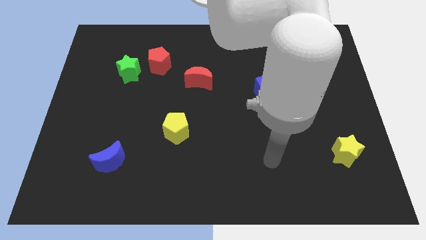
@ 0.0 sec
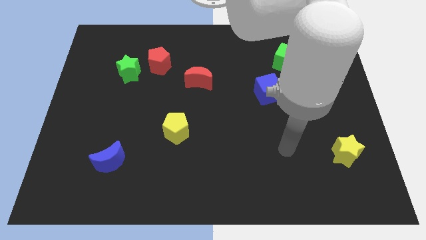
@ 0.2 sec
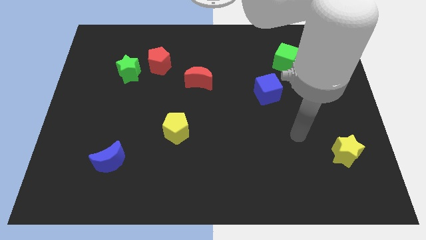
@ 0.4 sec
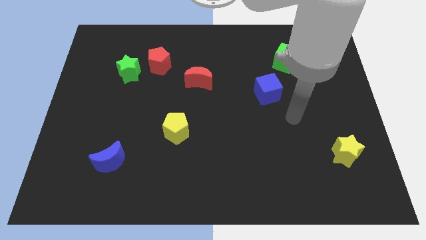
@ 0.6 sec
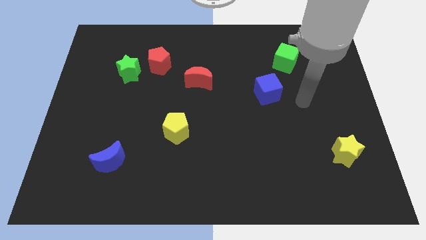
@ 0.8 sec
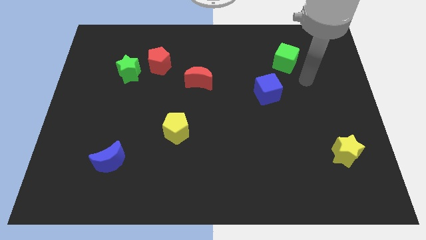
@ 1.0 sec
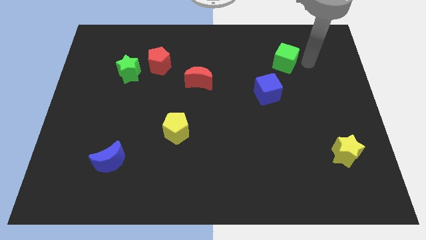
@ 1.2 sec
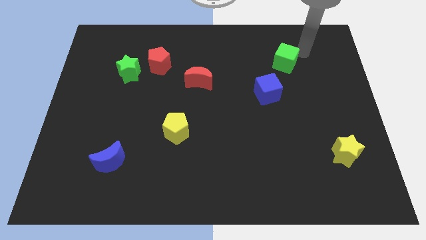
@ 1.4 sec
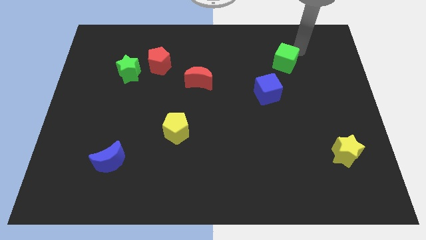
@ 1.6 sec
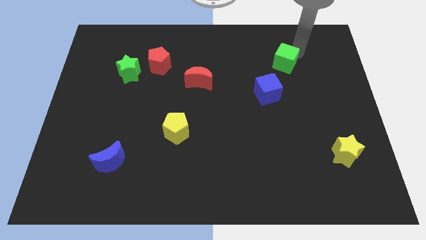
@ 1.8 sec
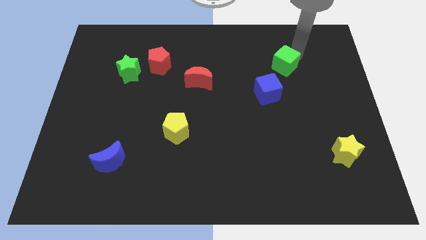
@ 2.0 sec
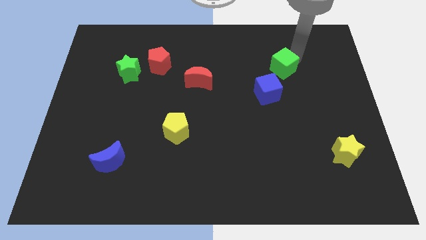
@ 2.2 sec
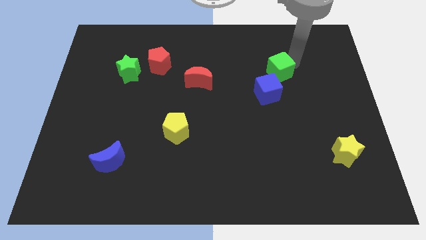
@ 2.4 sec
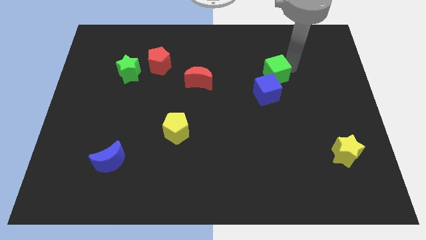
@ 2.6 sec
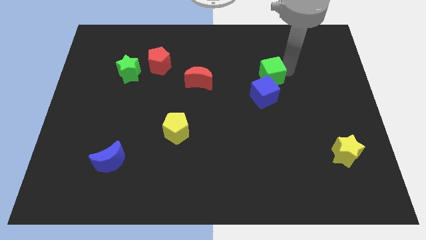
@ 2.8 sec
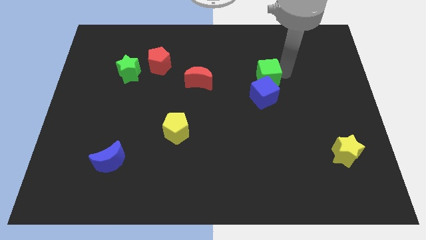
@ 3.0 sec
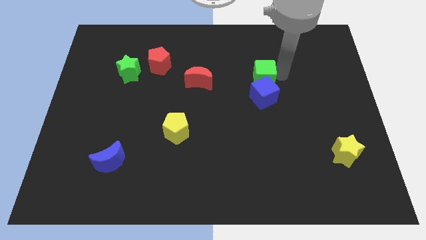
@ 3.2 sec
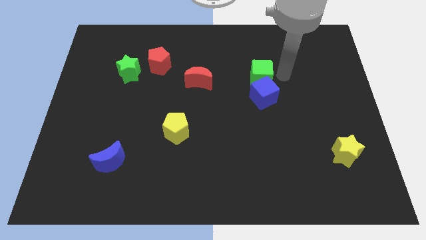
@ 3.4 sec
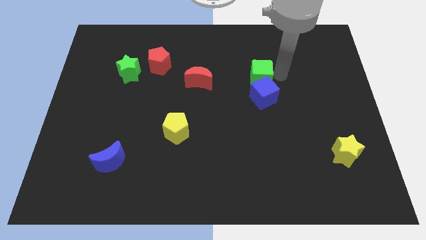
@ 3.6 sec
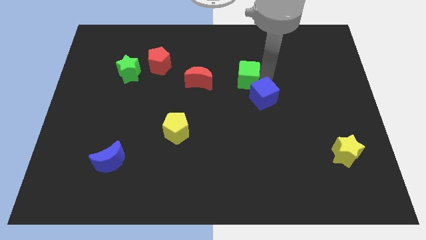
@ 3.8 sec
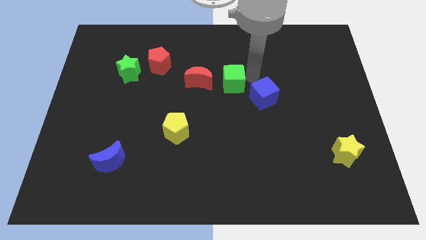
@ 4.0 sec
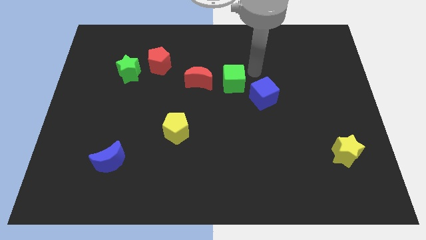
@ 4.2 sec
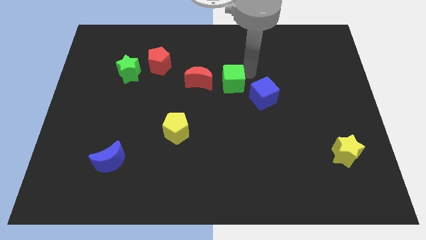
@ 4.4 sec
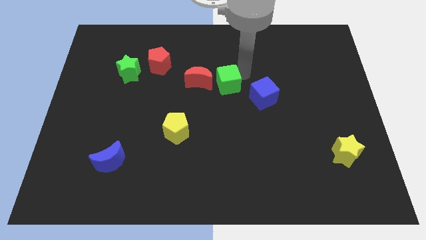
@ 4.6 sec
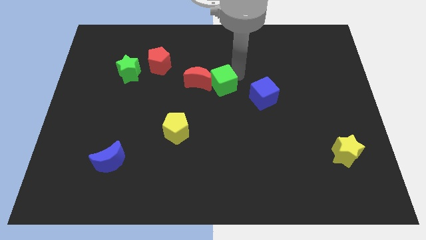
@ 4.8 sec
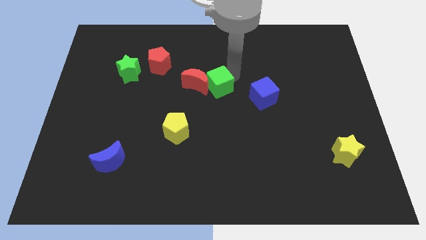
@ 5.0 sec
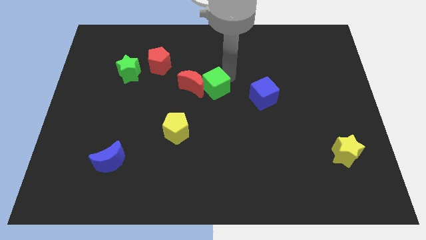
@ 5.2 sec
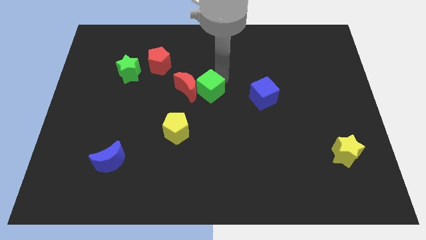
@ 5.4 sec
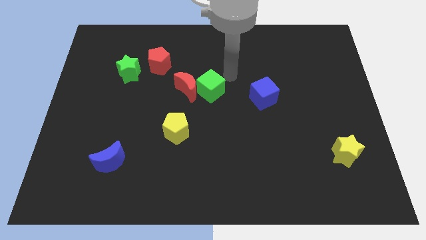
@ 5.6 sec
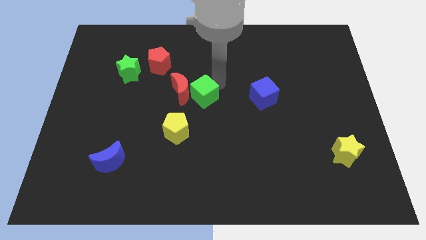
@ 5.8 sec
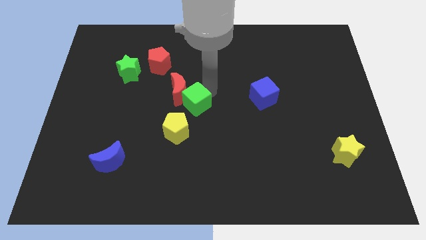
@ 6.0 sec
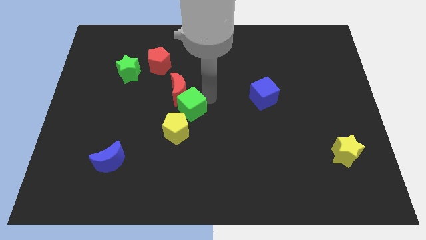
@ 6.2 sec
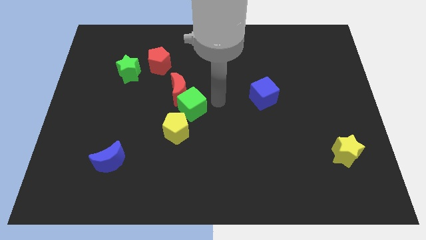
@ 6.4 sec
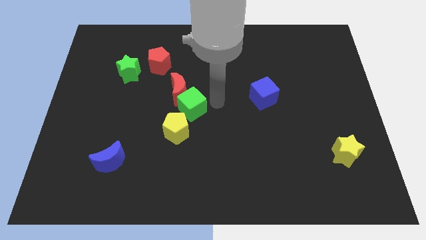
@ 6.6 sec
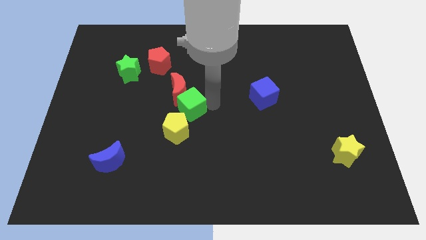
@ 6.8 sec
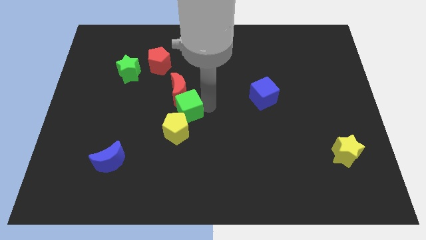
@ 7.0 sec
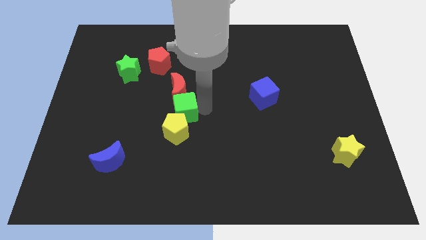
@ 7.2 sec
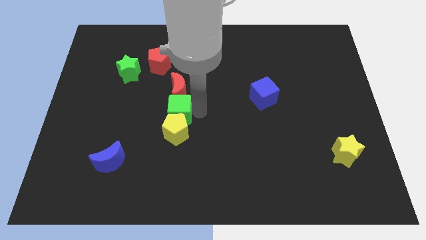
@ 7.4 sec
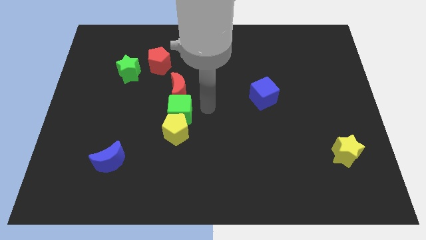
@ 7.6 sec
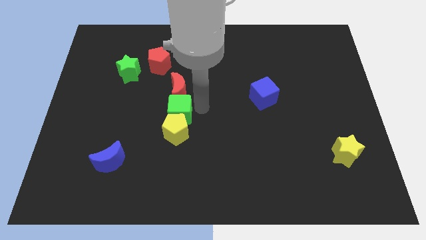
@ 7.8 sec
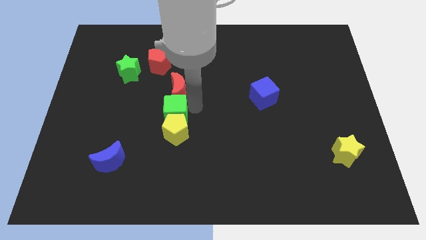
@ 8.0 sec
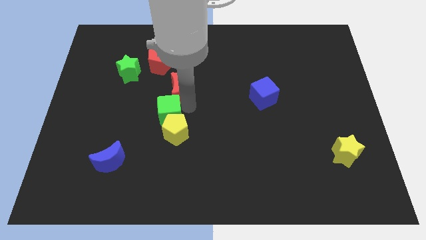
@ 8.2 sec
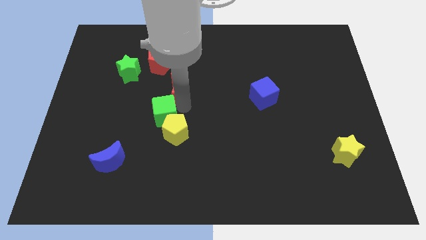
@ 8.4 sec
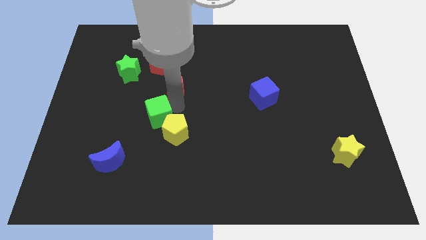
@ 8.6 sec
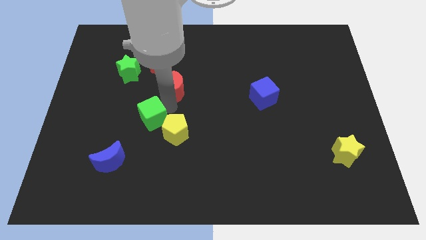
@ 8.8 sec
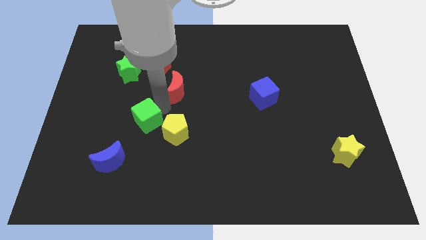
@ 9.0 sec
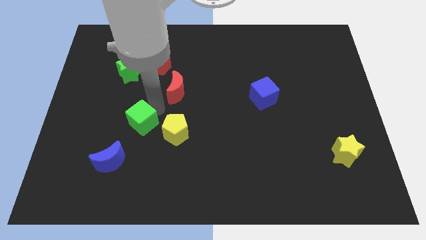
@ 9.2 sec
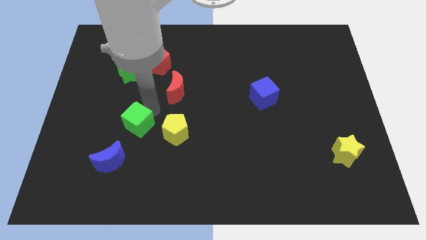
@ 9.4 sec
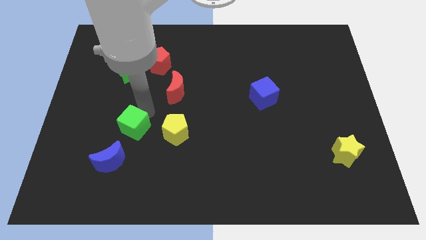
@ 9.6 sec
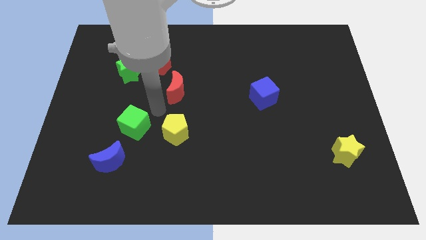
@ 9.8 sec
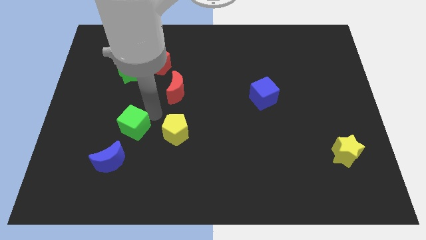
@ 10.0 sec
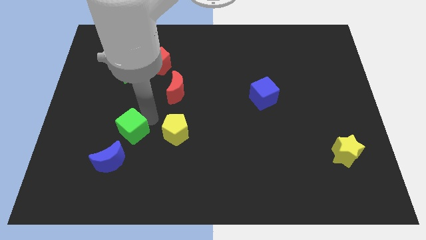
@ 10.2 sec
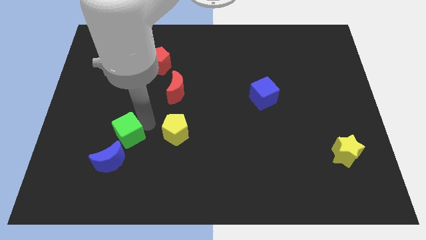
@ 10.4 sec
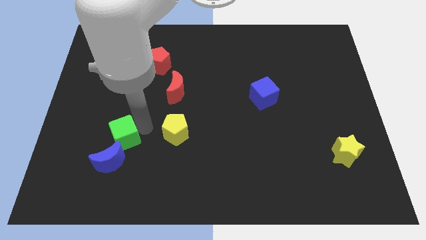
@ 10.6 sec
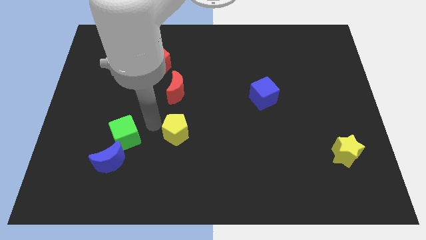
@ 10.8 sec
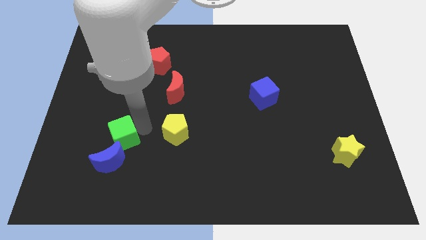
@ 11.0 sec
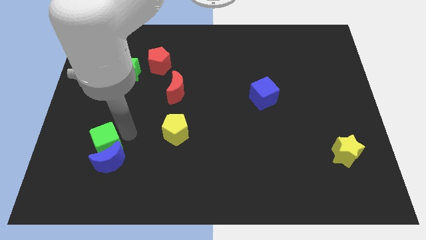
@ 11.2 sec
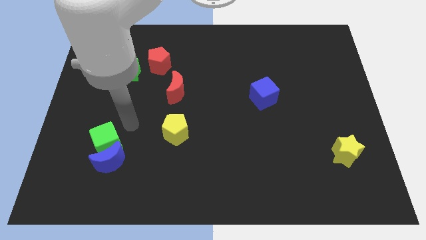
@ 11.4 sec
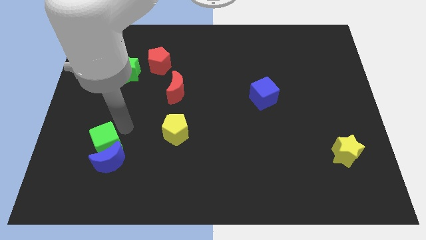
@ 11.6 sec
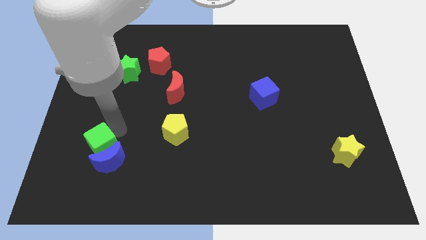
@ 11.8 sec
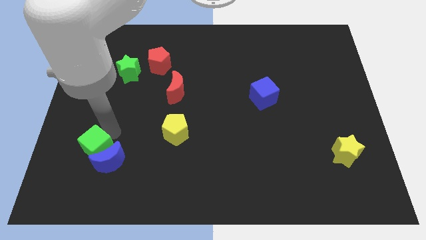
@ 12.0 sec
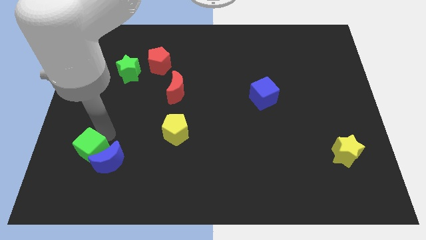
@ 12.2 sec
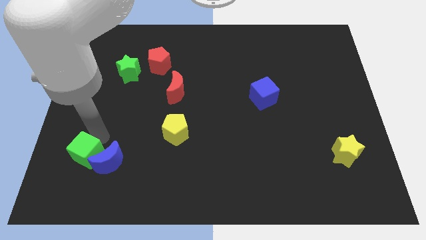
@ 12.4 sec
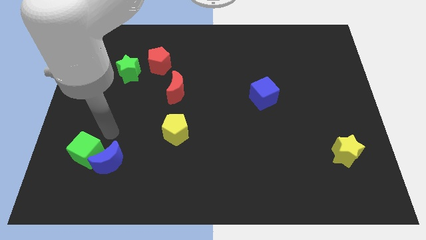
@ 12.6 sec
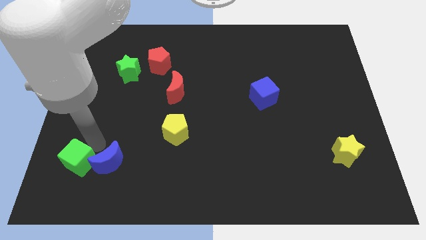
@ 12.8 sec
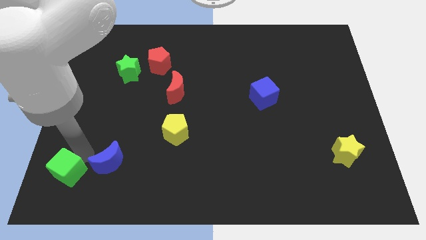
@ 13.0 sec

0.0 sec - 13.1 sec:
slide the green cube to the bottom left corner
